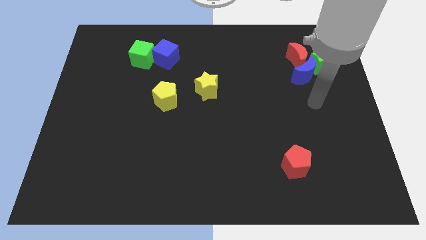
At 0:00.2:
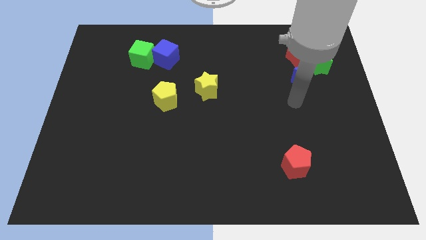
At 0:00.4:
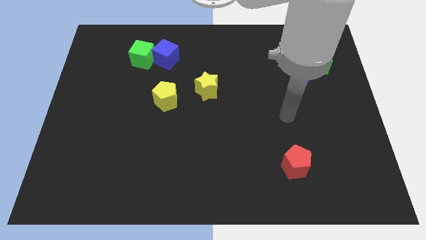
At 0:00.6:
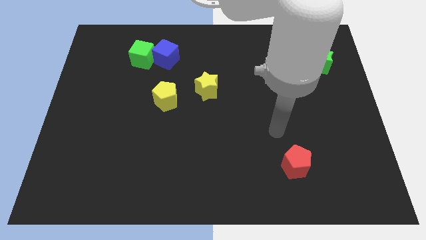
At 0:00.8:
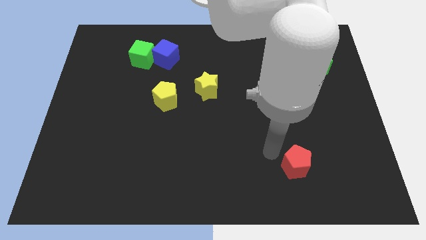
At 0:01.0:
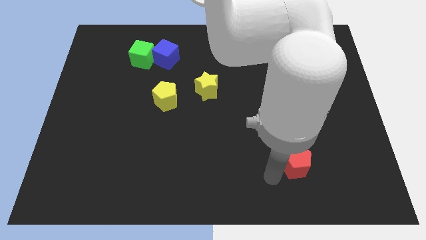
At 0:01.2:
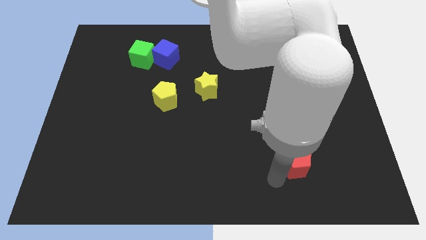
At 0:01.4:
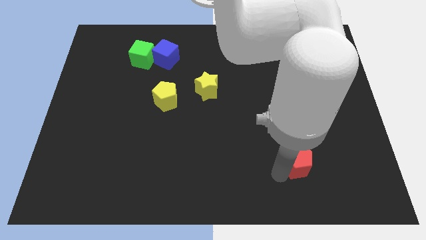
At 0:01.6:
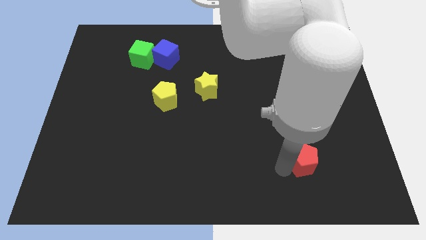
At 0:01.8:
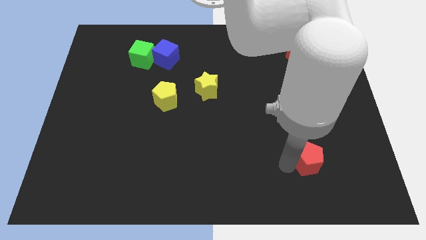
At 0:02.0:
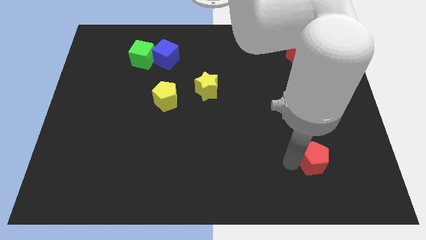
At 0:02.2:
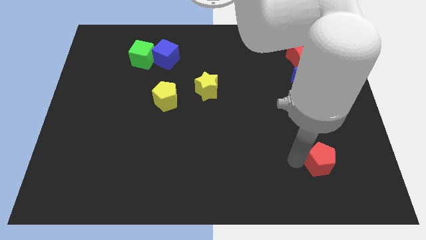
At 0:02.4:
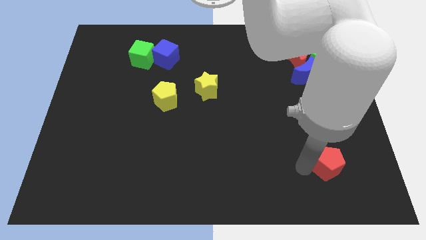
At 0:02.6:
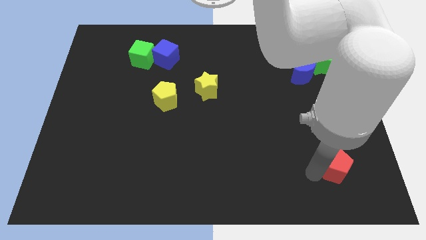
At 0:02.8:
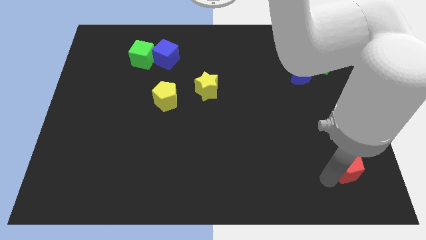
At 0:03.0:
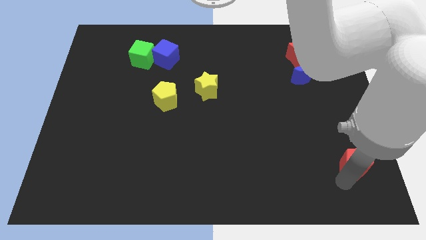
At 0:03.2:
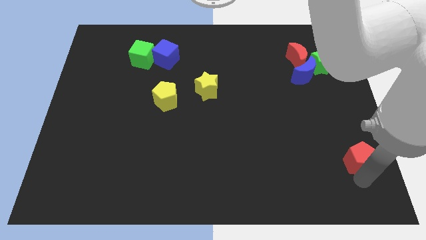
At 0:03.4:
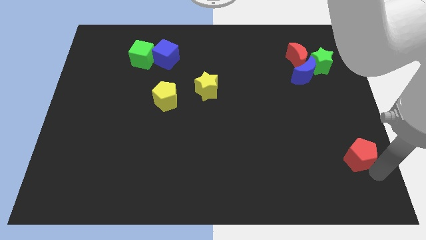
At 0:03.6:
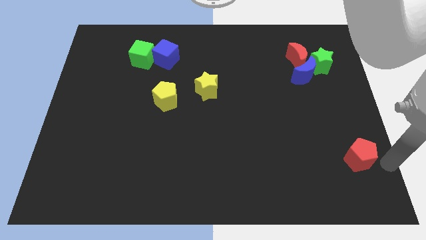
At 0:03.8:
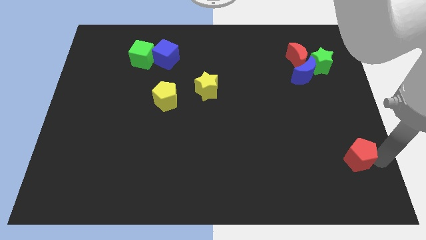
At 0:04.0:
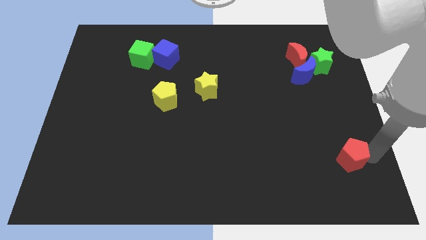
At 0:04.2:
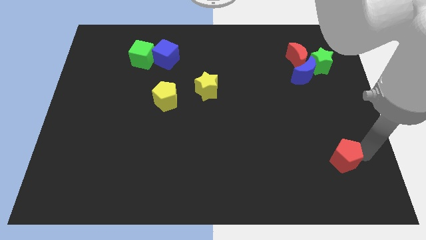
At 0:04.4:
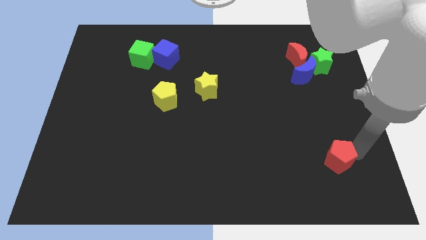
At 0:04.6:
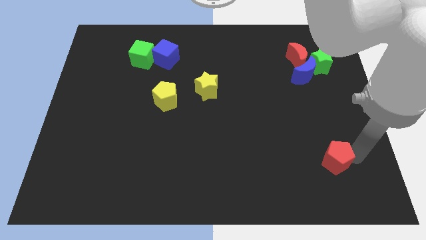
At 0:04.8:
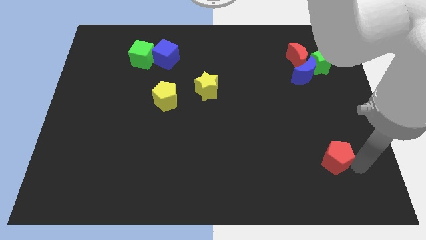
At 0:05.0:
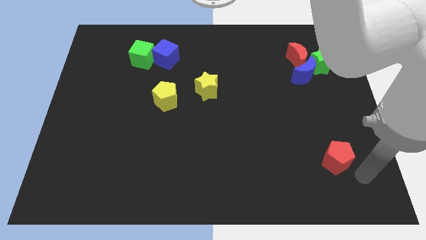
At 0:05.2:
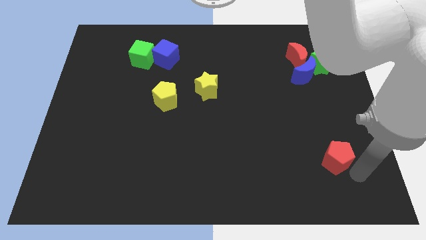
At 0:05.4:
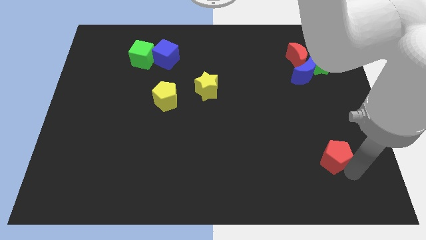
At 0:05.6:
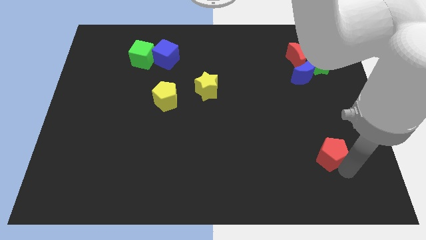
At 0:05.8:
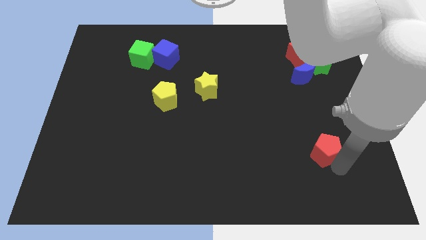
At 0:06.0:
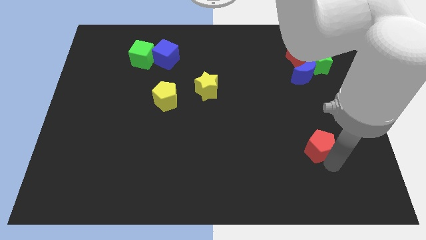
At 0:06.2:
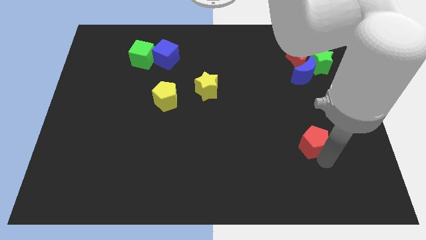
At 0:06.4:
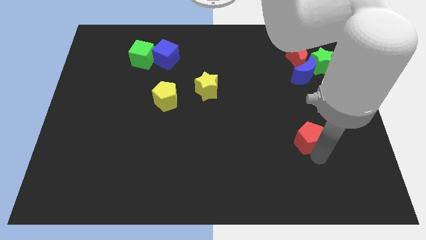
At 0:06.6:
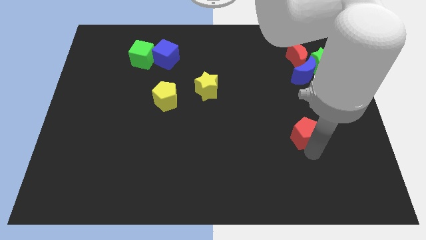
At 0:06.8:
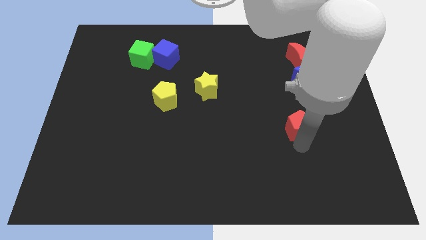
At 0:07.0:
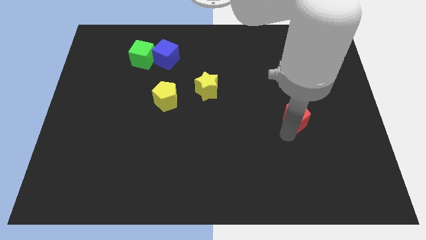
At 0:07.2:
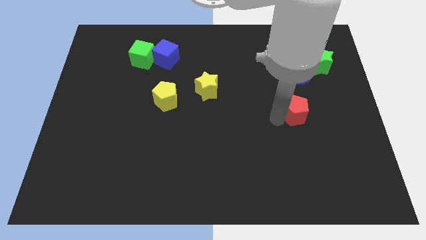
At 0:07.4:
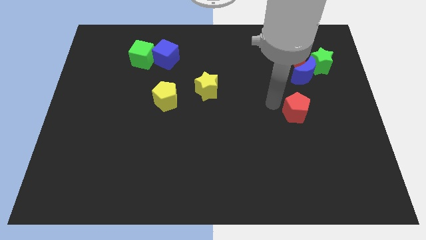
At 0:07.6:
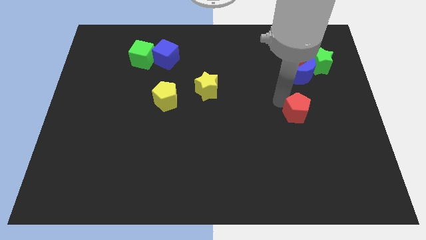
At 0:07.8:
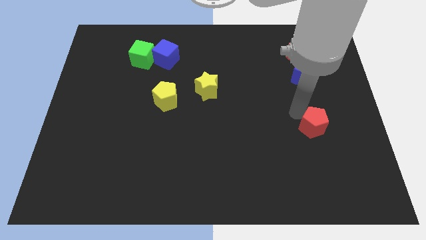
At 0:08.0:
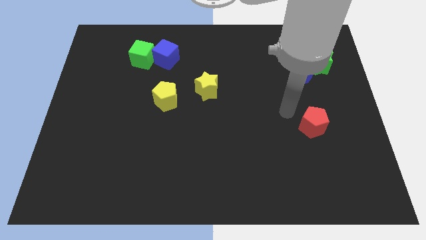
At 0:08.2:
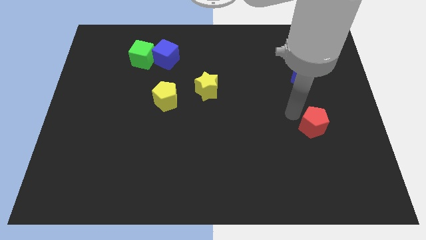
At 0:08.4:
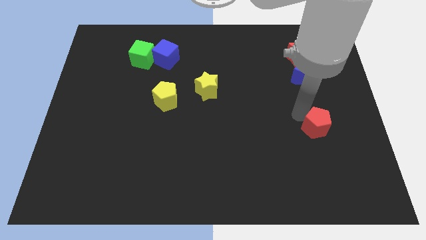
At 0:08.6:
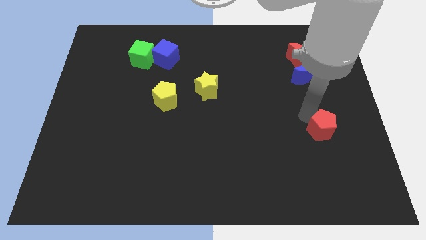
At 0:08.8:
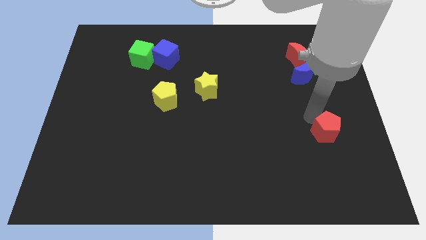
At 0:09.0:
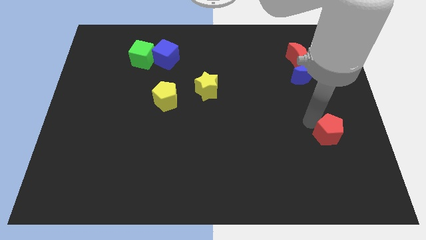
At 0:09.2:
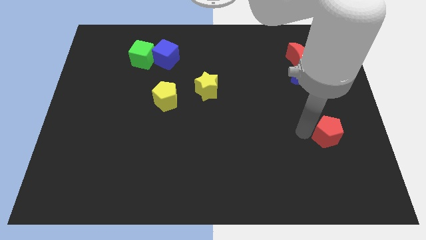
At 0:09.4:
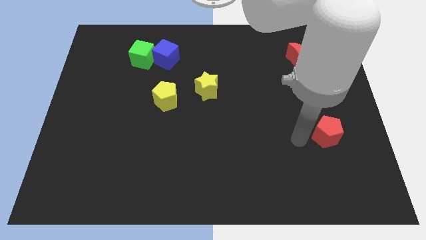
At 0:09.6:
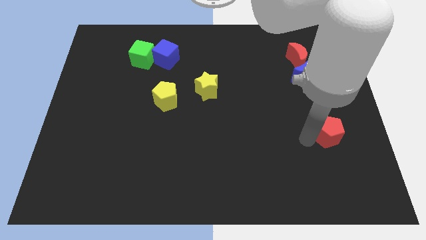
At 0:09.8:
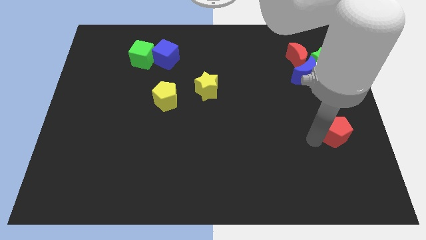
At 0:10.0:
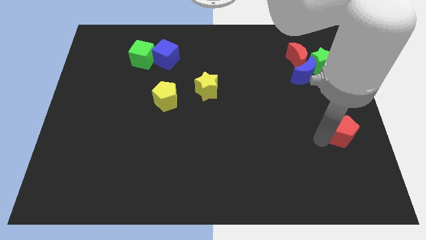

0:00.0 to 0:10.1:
push the red pentagon to the right side of the board

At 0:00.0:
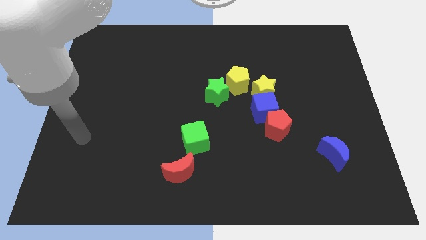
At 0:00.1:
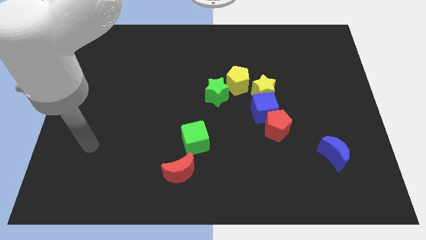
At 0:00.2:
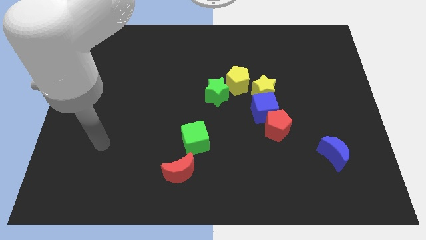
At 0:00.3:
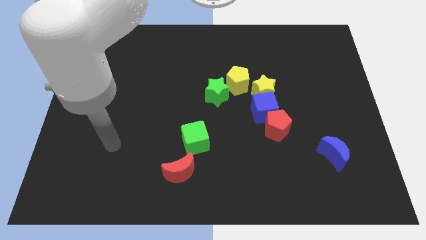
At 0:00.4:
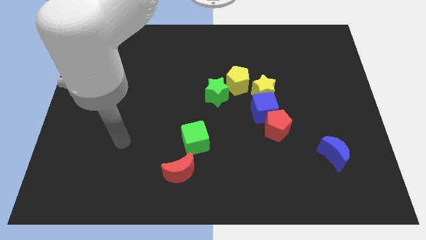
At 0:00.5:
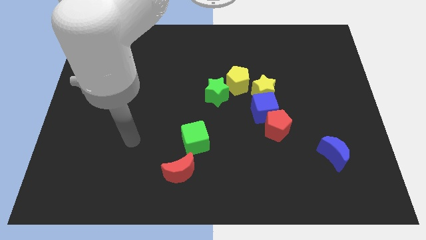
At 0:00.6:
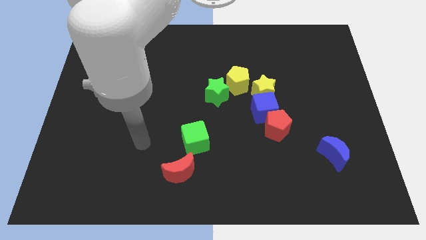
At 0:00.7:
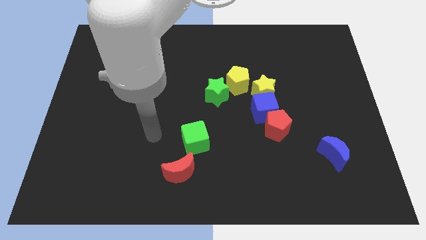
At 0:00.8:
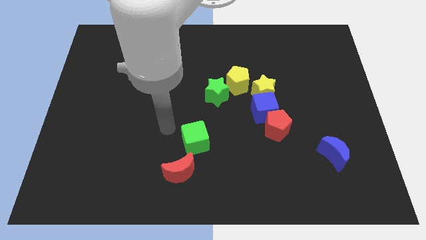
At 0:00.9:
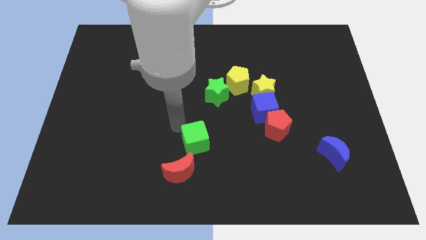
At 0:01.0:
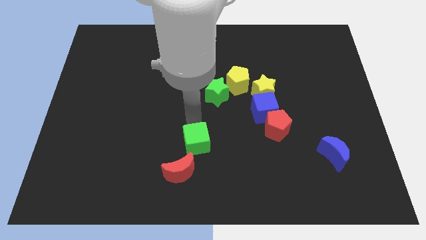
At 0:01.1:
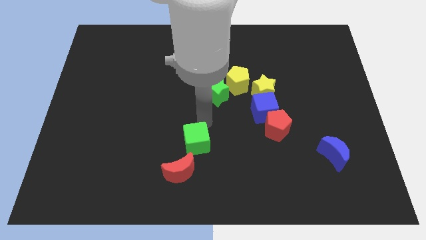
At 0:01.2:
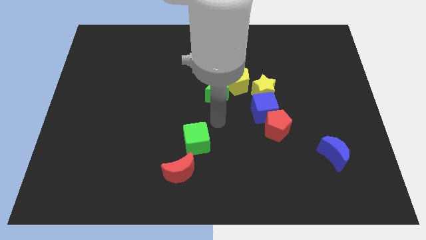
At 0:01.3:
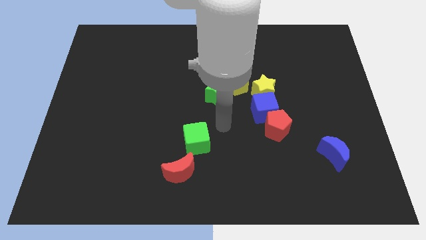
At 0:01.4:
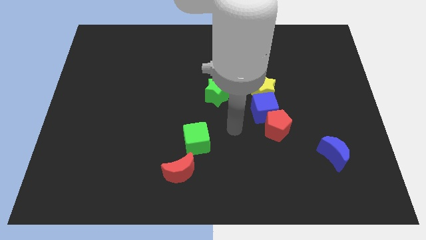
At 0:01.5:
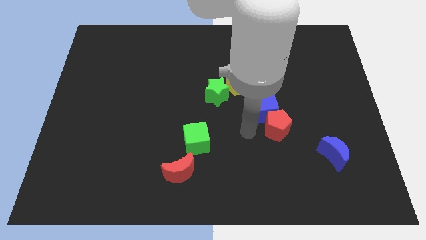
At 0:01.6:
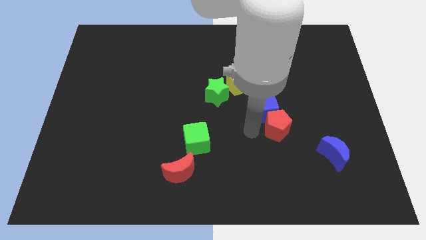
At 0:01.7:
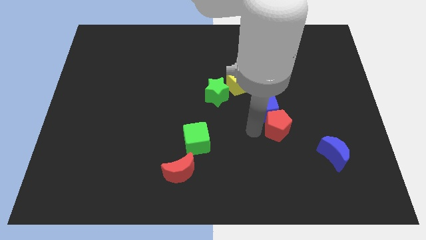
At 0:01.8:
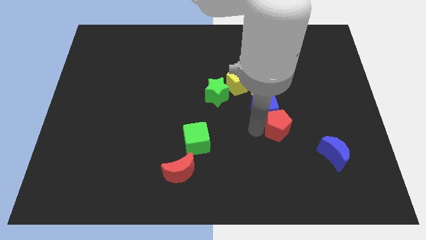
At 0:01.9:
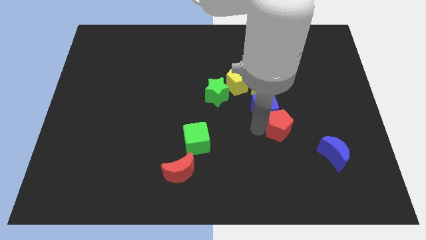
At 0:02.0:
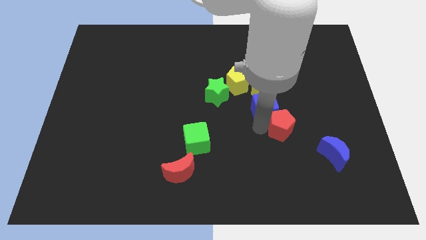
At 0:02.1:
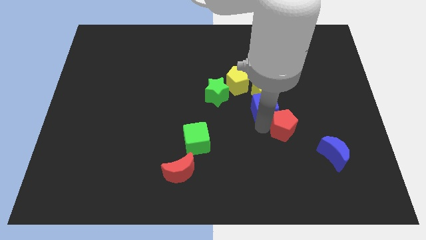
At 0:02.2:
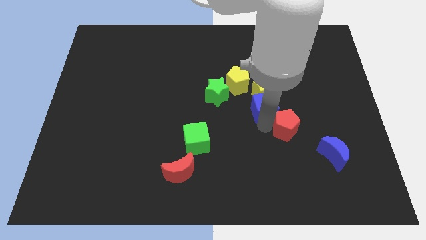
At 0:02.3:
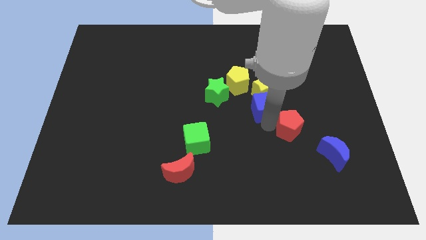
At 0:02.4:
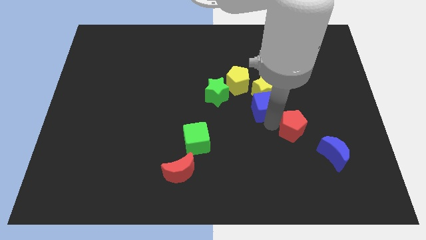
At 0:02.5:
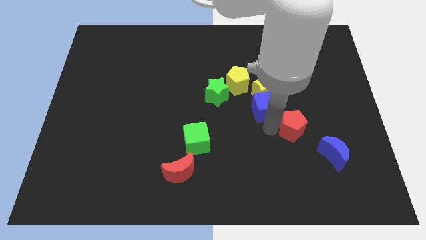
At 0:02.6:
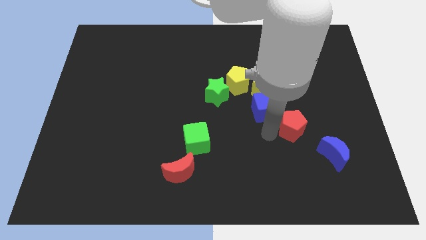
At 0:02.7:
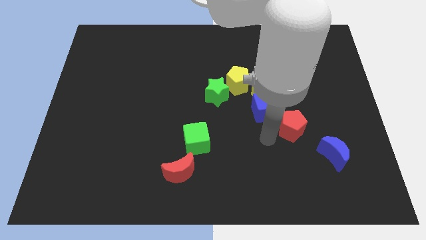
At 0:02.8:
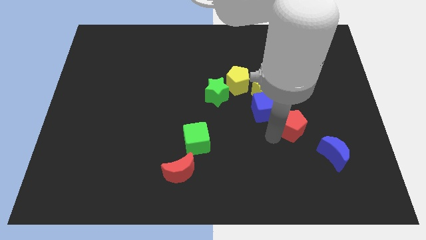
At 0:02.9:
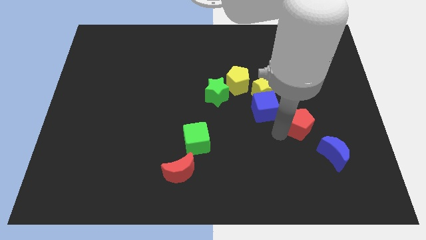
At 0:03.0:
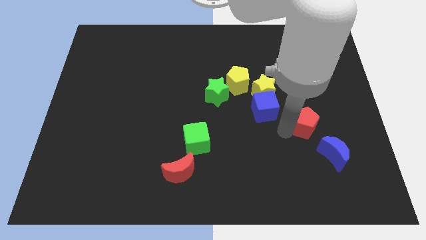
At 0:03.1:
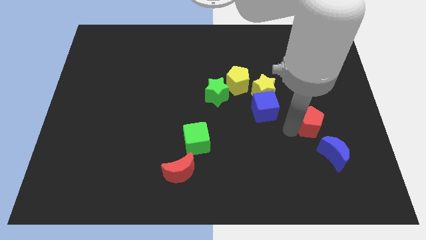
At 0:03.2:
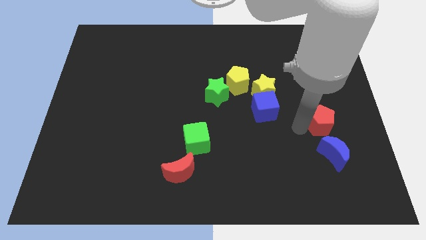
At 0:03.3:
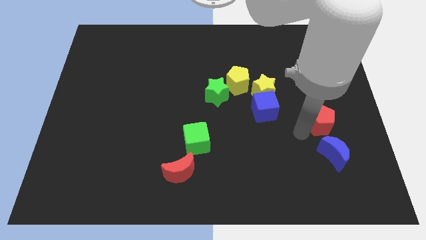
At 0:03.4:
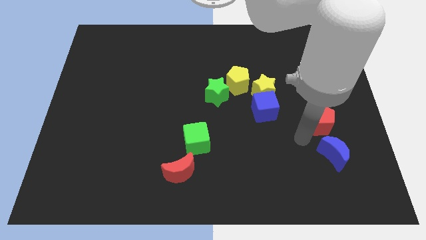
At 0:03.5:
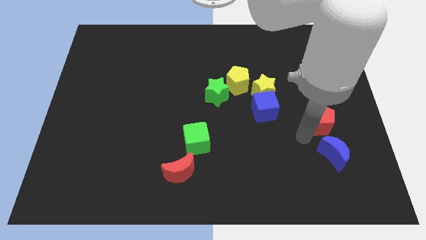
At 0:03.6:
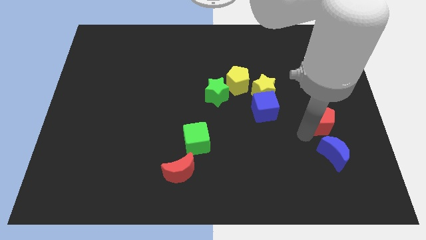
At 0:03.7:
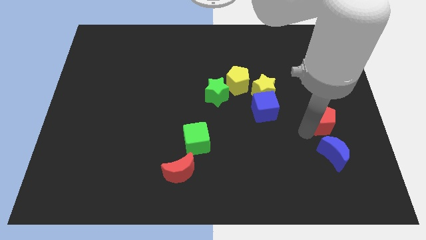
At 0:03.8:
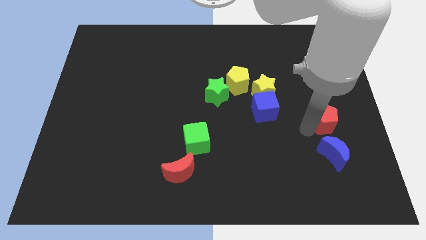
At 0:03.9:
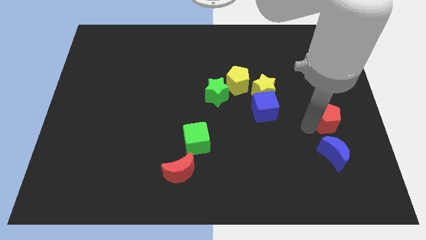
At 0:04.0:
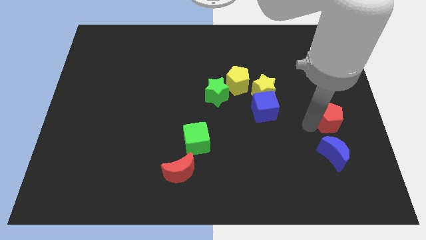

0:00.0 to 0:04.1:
move the red pentagon to the center right
